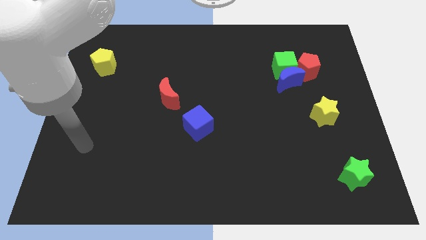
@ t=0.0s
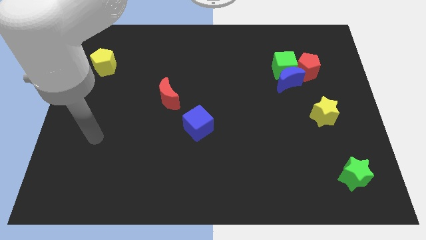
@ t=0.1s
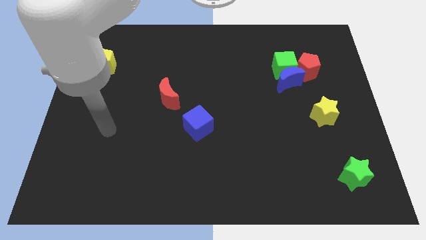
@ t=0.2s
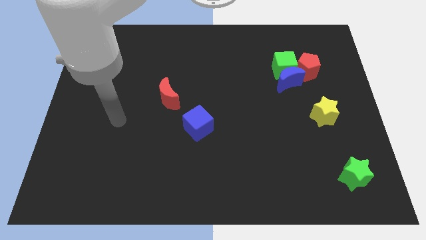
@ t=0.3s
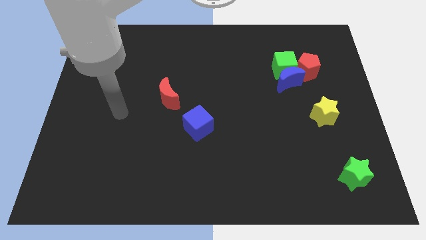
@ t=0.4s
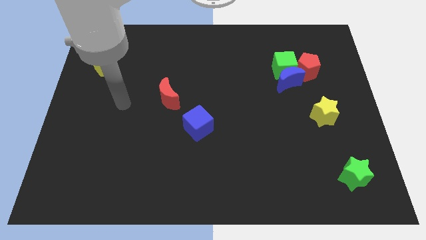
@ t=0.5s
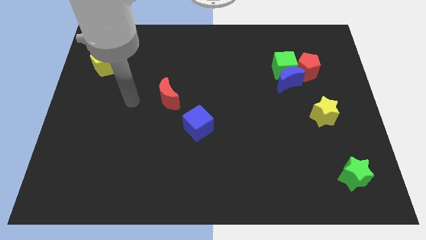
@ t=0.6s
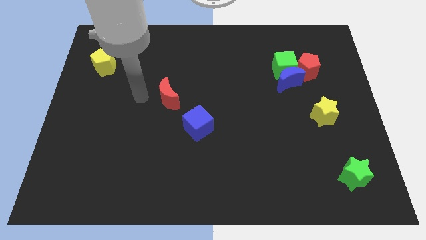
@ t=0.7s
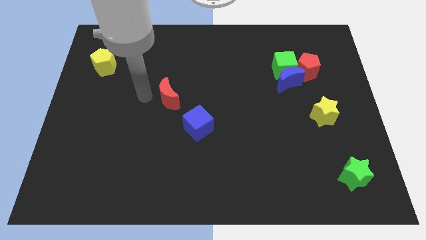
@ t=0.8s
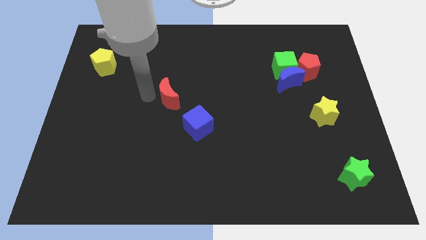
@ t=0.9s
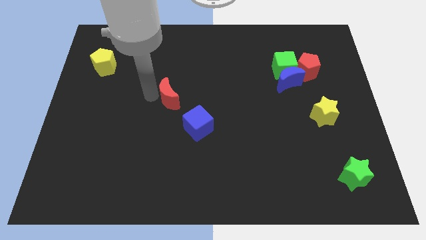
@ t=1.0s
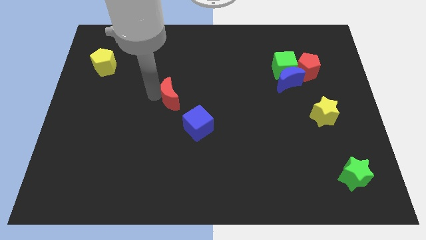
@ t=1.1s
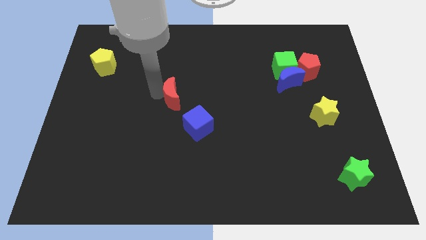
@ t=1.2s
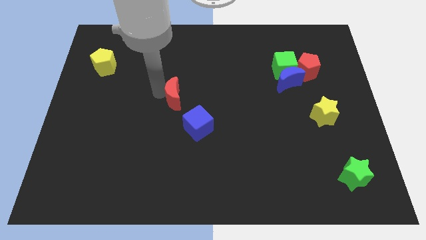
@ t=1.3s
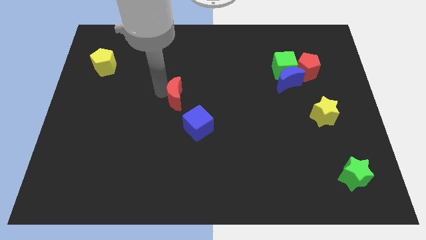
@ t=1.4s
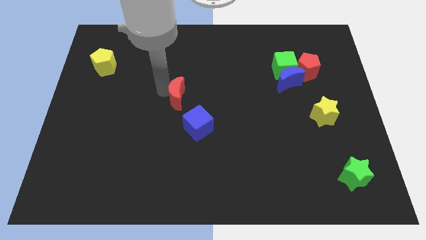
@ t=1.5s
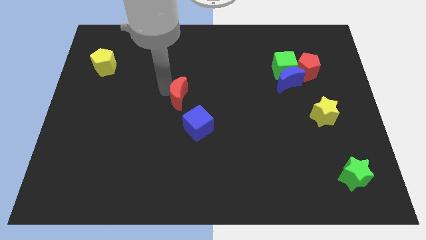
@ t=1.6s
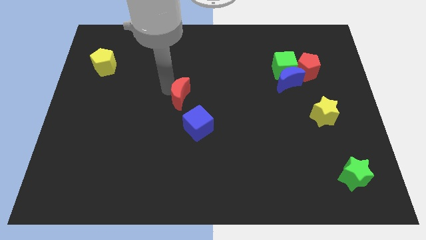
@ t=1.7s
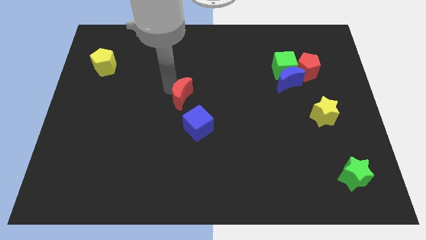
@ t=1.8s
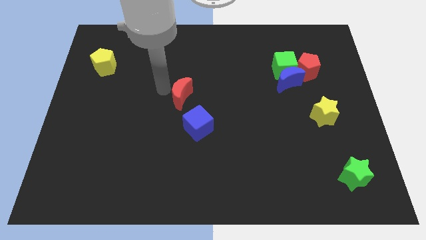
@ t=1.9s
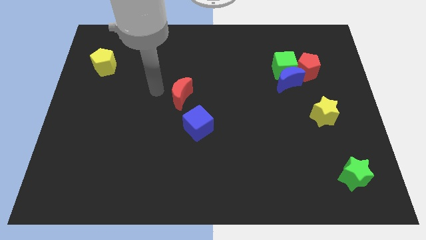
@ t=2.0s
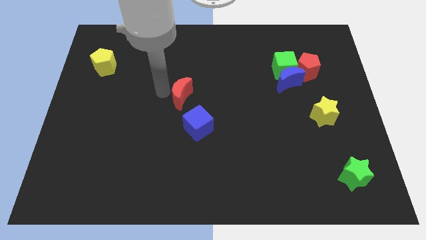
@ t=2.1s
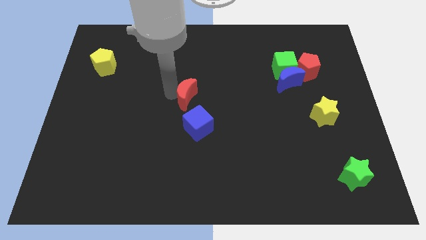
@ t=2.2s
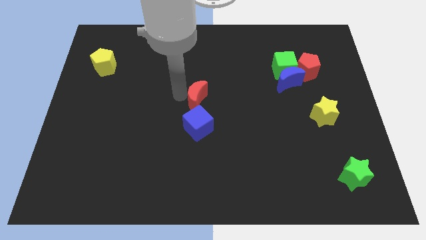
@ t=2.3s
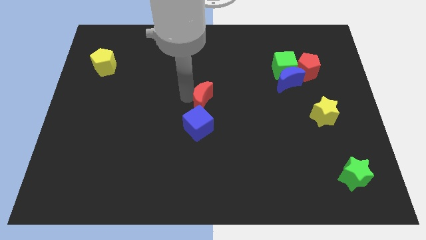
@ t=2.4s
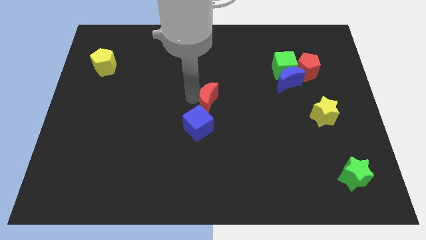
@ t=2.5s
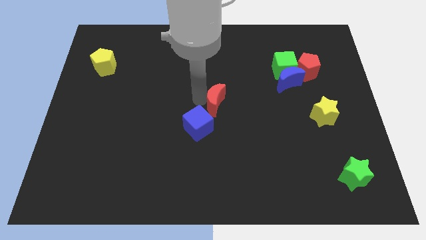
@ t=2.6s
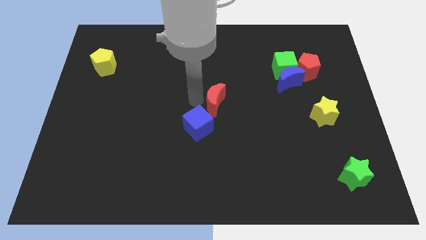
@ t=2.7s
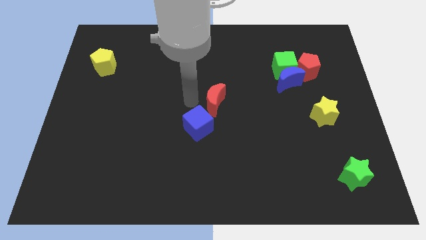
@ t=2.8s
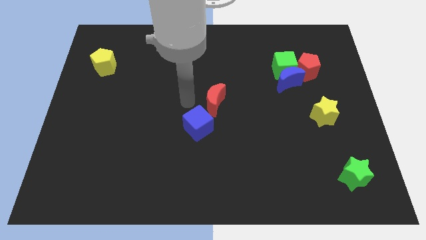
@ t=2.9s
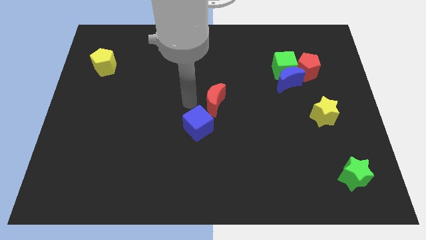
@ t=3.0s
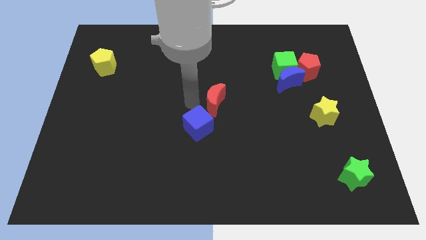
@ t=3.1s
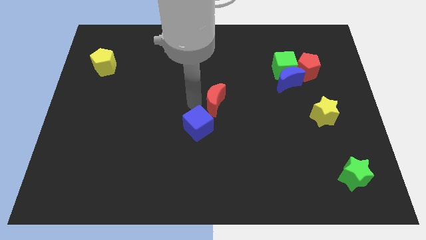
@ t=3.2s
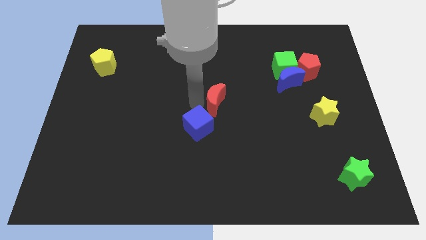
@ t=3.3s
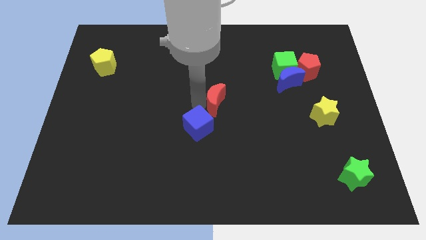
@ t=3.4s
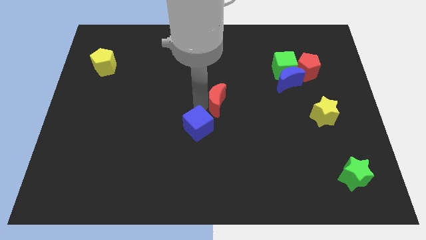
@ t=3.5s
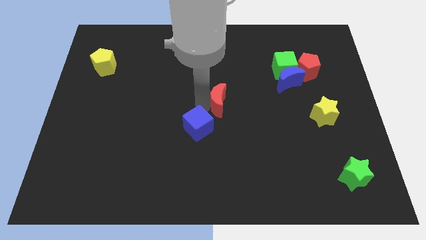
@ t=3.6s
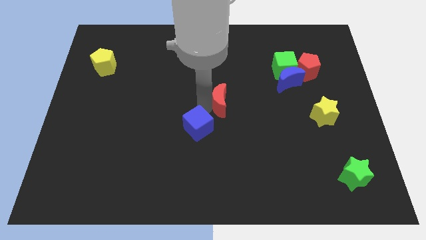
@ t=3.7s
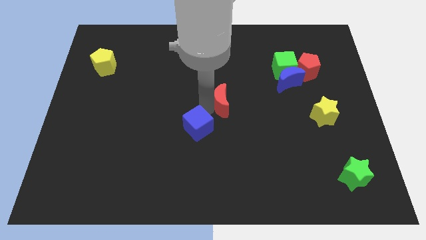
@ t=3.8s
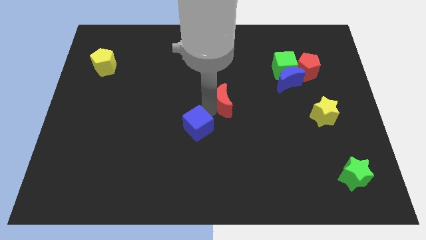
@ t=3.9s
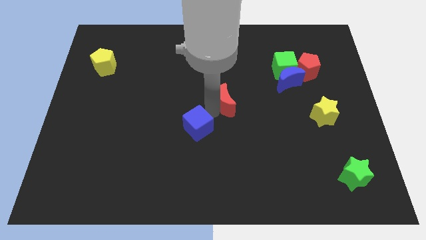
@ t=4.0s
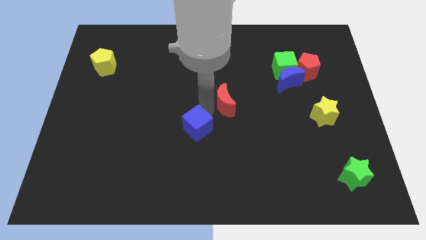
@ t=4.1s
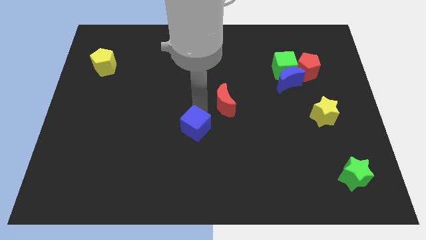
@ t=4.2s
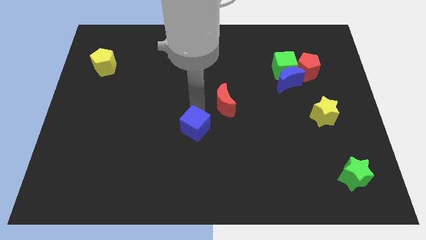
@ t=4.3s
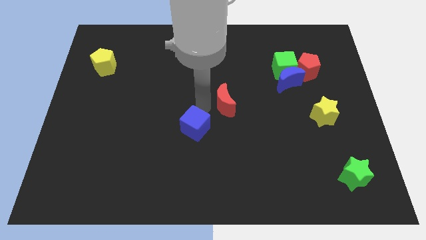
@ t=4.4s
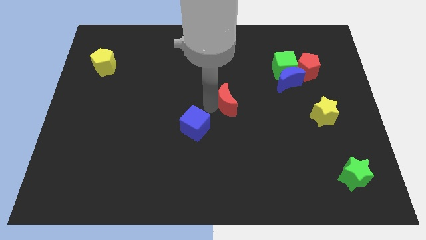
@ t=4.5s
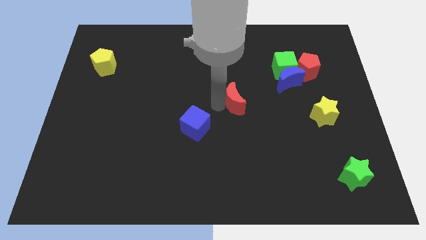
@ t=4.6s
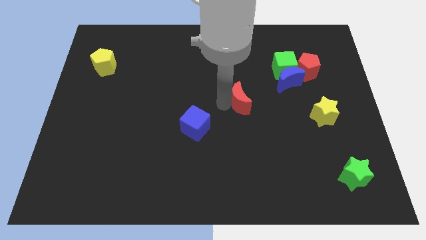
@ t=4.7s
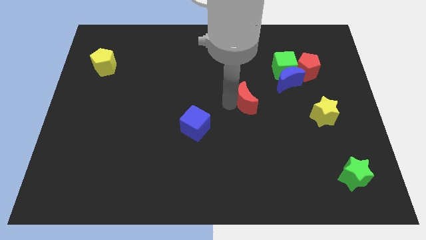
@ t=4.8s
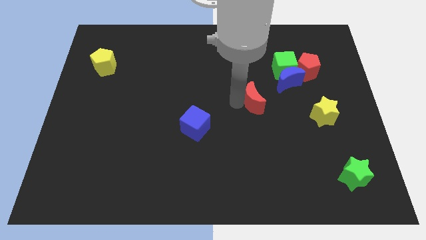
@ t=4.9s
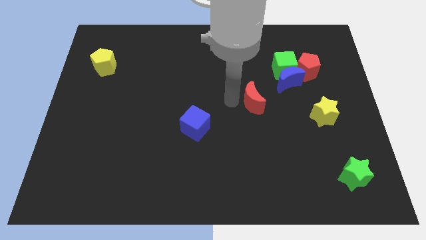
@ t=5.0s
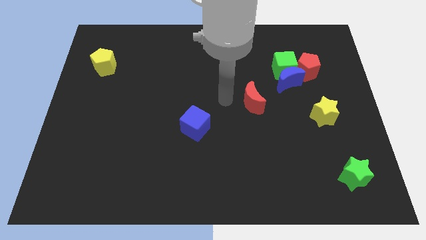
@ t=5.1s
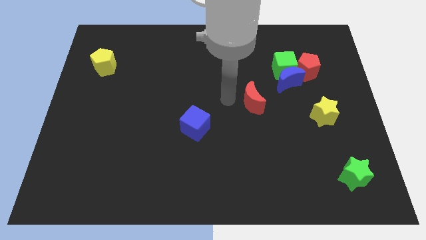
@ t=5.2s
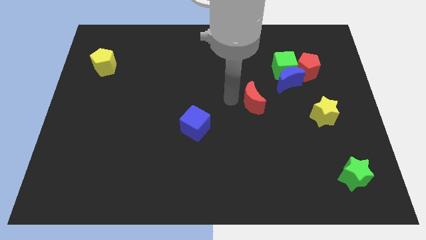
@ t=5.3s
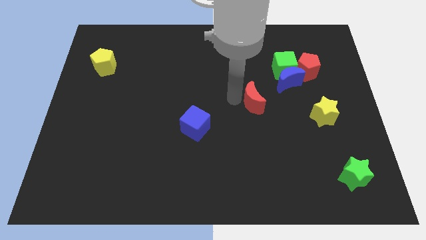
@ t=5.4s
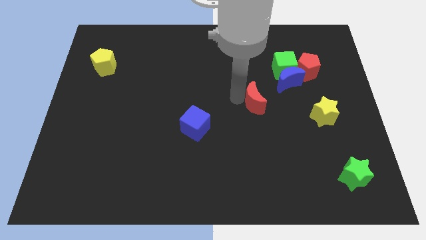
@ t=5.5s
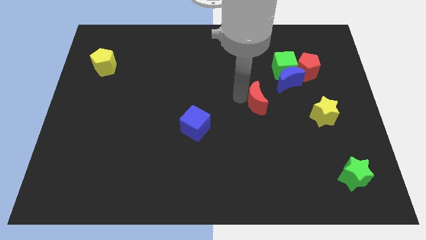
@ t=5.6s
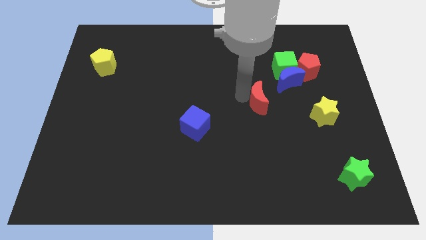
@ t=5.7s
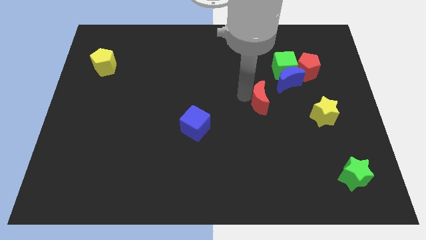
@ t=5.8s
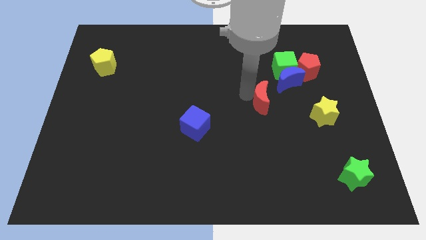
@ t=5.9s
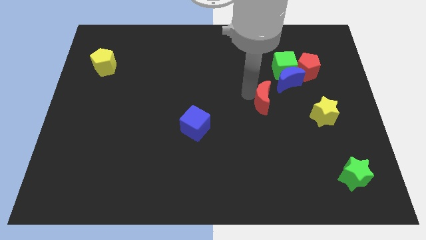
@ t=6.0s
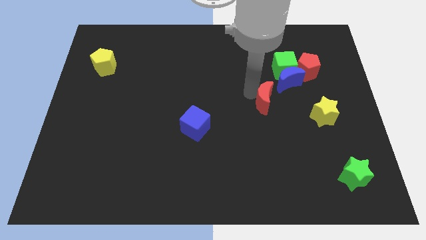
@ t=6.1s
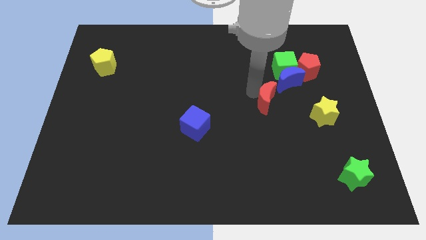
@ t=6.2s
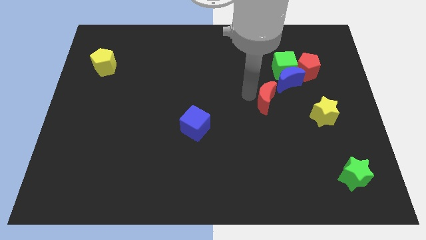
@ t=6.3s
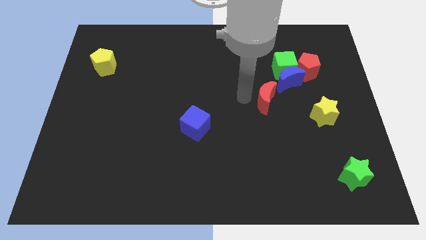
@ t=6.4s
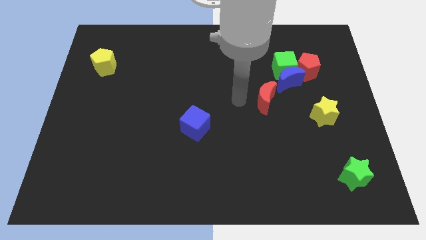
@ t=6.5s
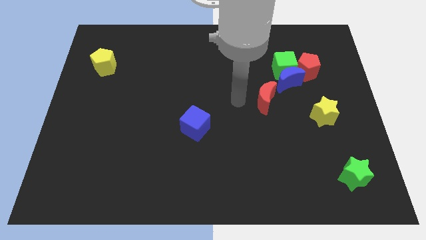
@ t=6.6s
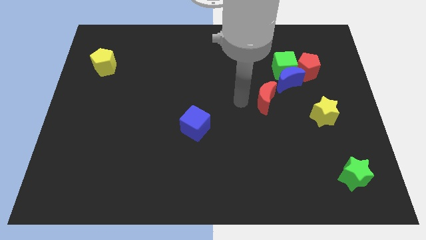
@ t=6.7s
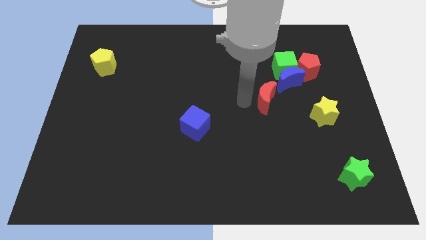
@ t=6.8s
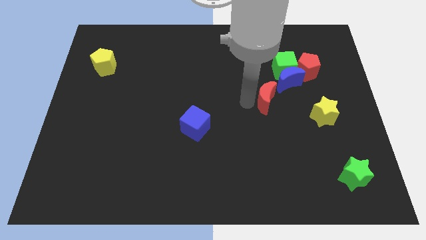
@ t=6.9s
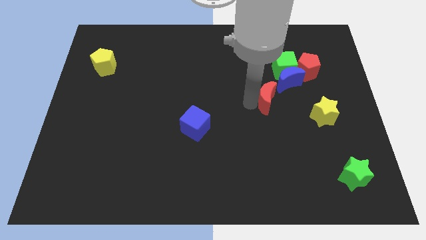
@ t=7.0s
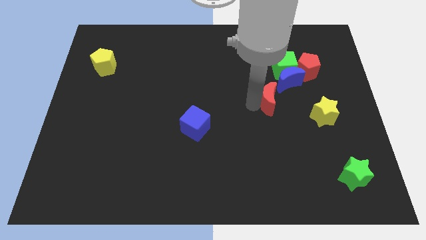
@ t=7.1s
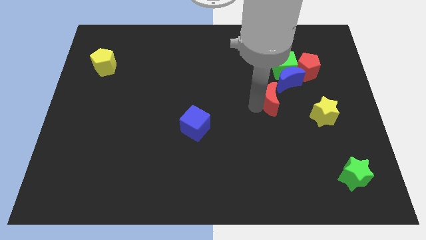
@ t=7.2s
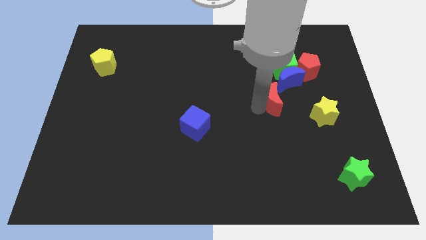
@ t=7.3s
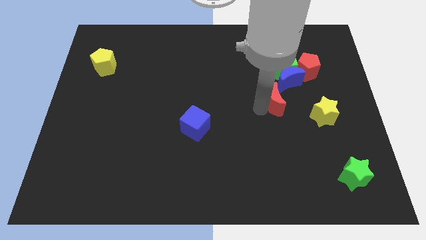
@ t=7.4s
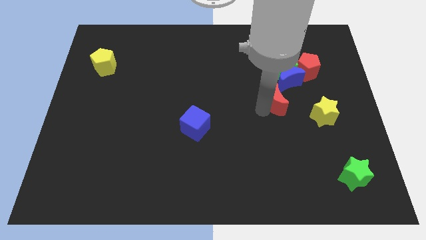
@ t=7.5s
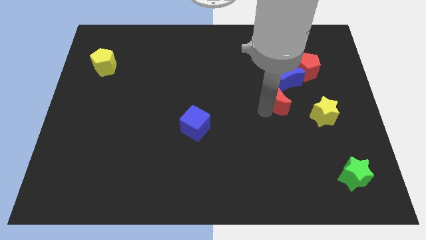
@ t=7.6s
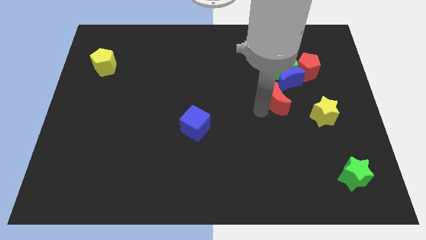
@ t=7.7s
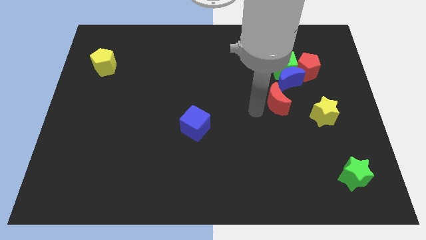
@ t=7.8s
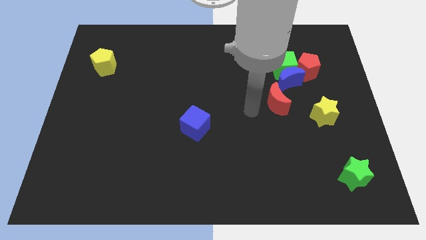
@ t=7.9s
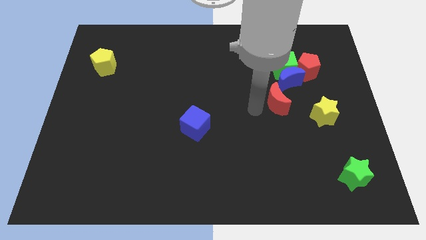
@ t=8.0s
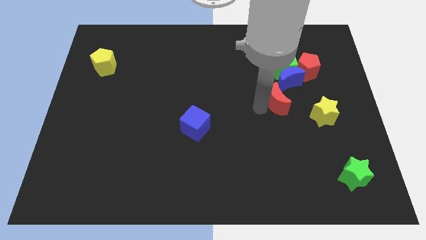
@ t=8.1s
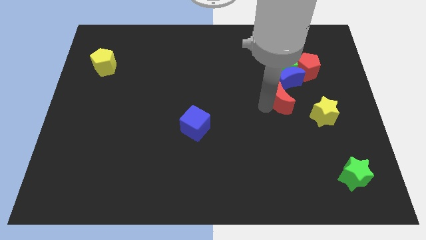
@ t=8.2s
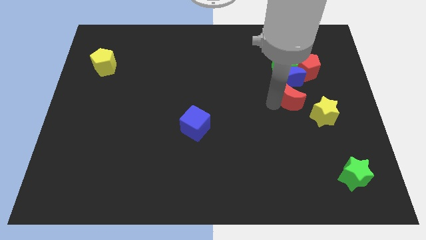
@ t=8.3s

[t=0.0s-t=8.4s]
move the red moon to the bottom right of the blue moon
